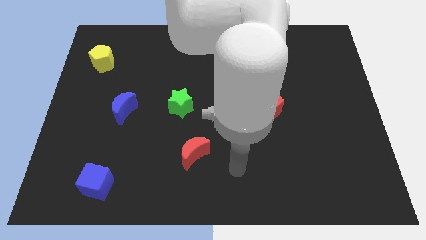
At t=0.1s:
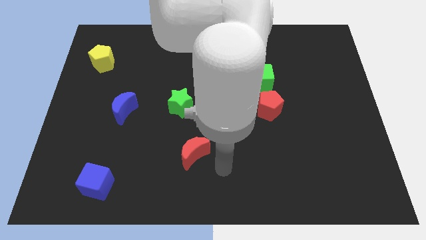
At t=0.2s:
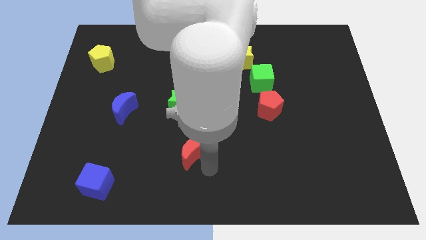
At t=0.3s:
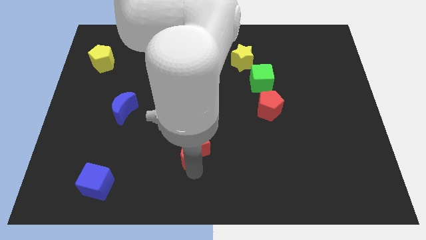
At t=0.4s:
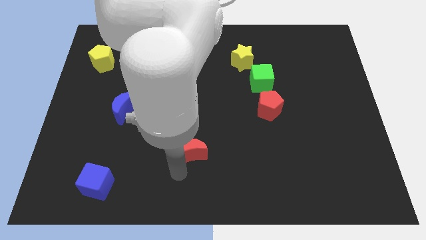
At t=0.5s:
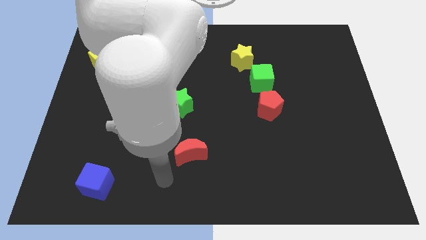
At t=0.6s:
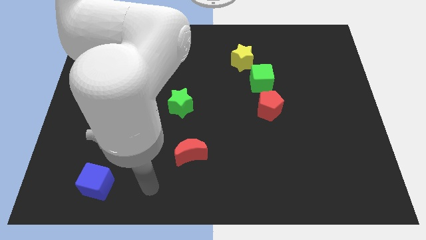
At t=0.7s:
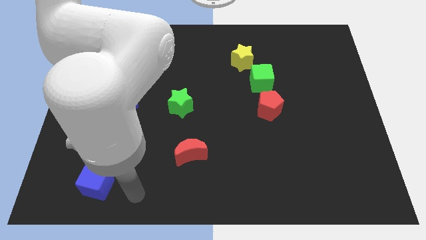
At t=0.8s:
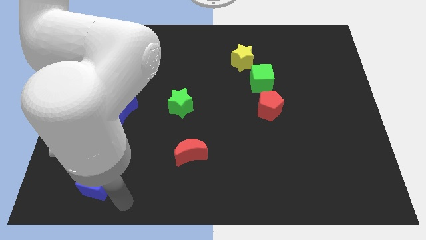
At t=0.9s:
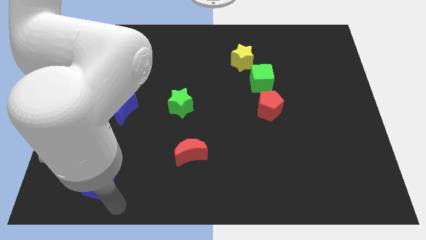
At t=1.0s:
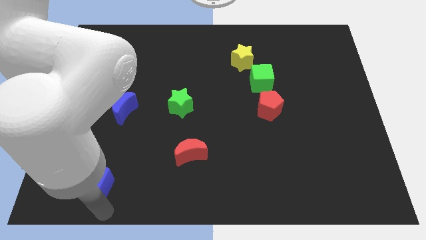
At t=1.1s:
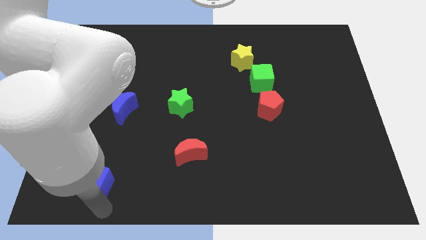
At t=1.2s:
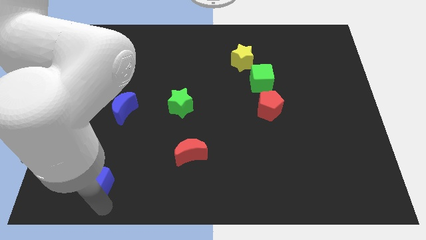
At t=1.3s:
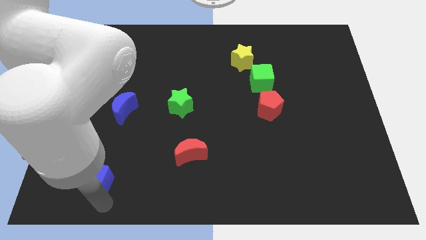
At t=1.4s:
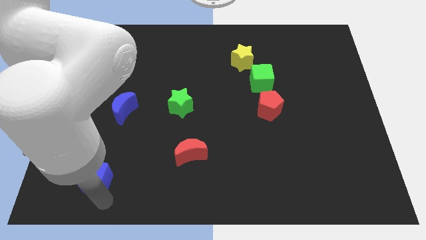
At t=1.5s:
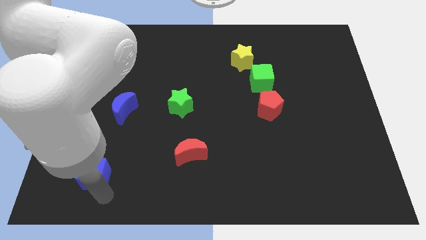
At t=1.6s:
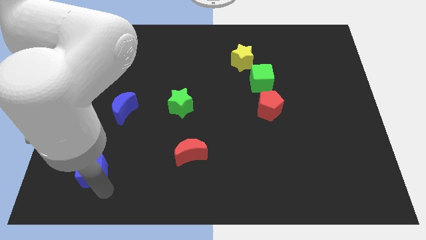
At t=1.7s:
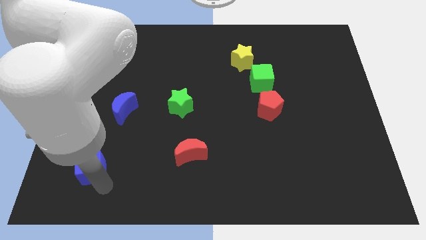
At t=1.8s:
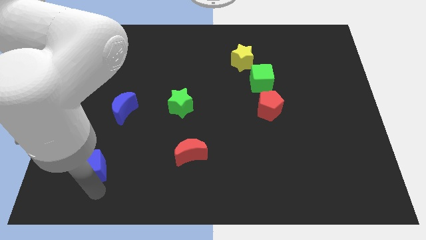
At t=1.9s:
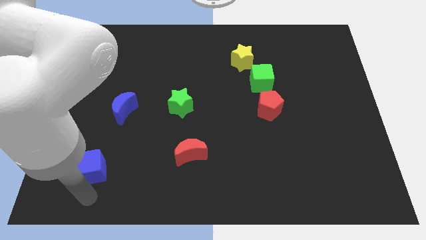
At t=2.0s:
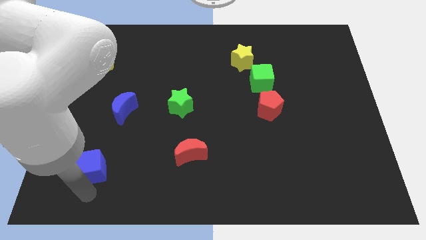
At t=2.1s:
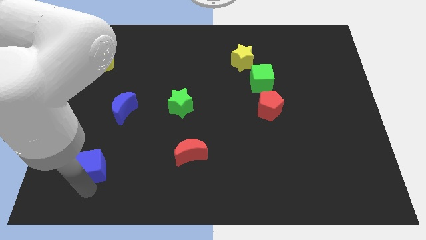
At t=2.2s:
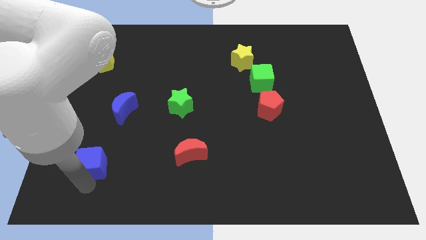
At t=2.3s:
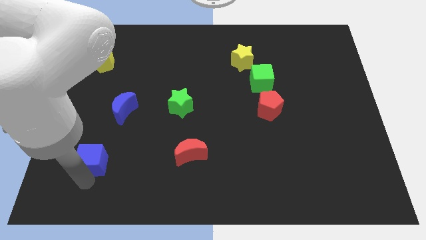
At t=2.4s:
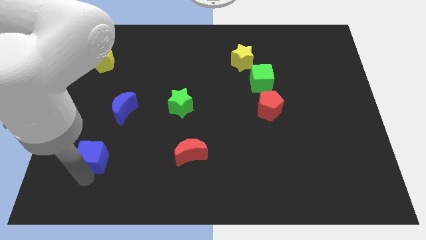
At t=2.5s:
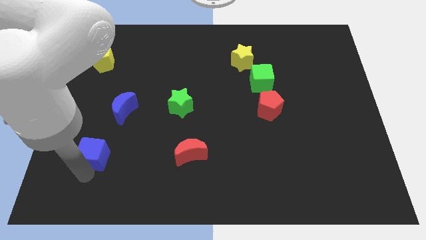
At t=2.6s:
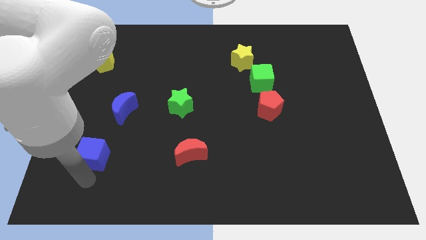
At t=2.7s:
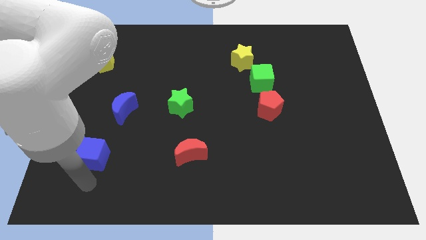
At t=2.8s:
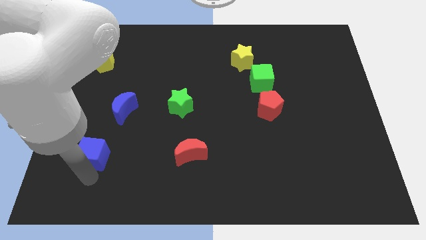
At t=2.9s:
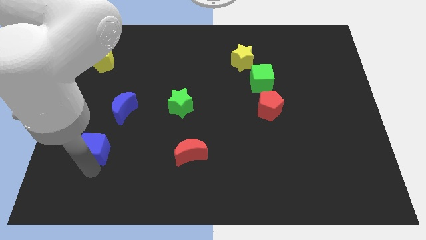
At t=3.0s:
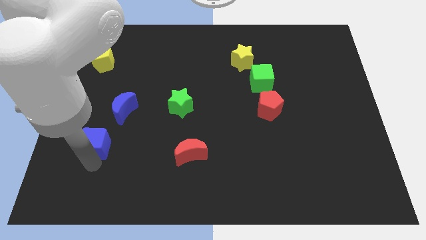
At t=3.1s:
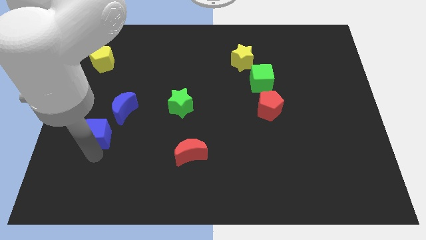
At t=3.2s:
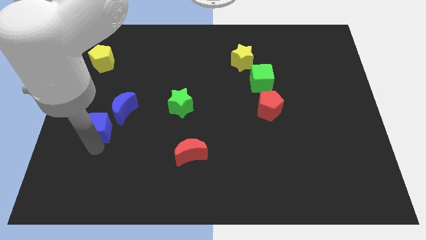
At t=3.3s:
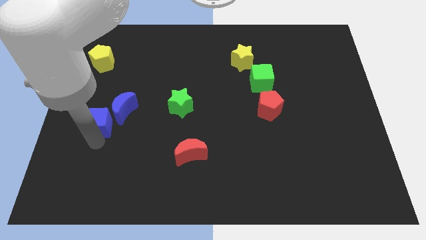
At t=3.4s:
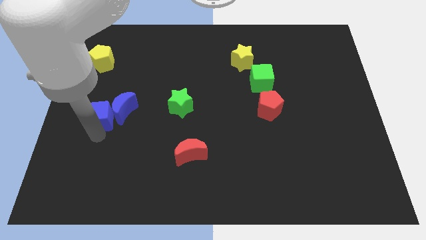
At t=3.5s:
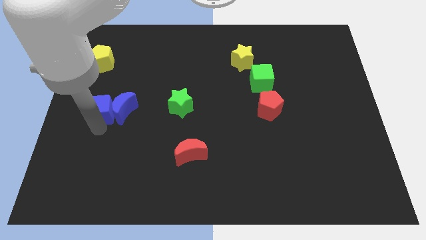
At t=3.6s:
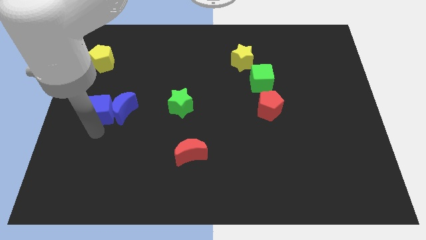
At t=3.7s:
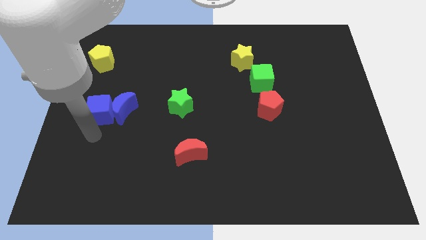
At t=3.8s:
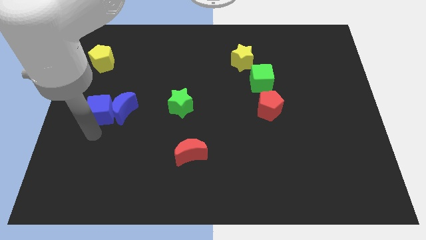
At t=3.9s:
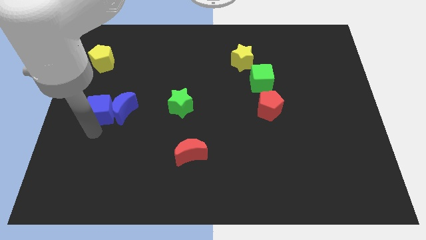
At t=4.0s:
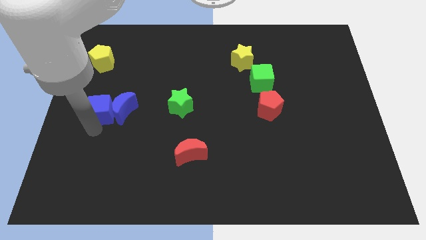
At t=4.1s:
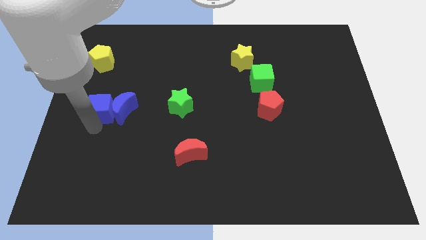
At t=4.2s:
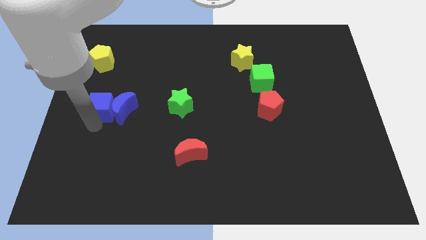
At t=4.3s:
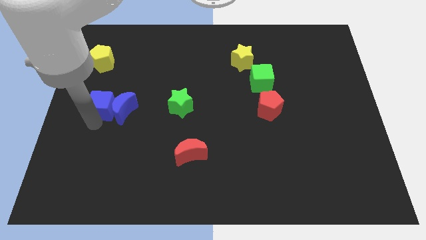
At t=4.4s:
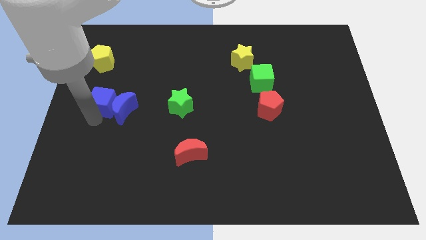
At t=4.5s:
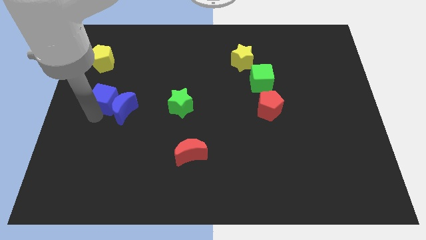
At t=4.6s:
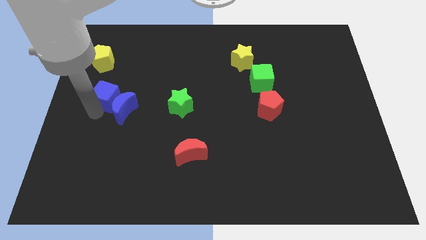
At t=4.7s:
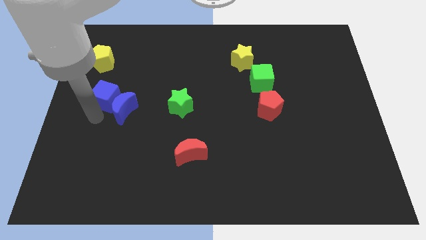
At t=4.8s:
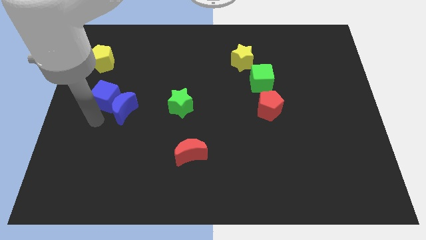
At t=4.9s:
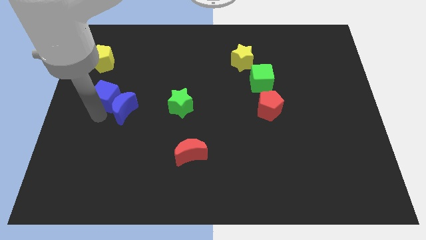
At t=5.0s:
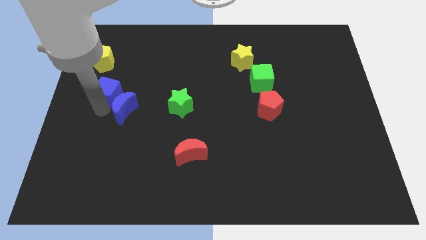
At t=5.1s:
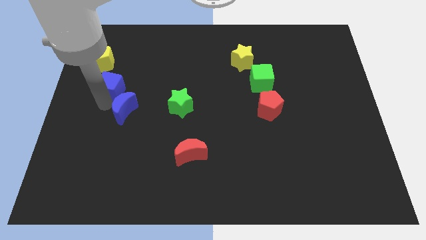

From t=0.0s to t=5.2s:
push the blue cube to the bottom right of the yellow pentagon

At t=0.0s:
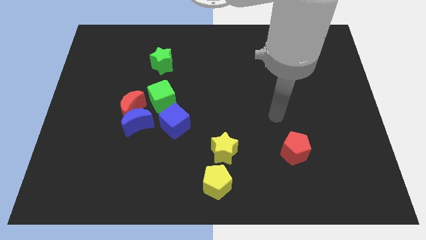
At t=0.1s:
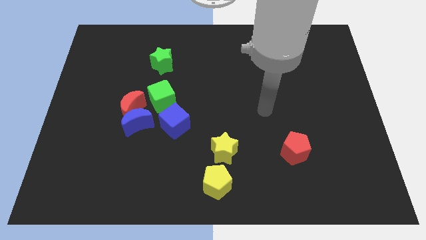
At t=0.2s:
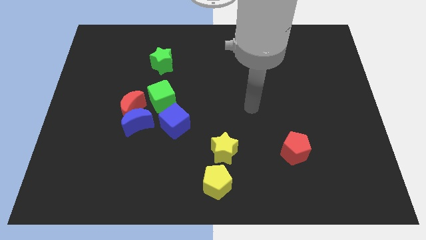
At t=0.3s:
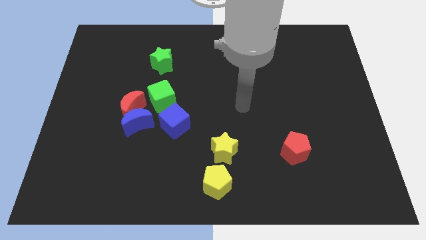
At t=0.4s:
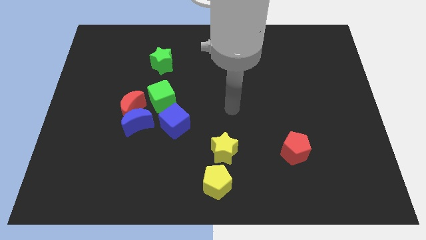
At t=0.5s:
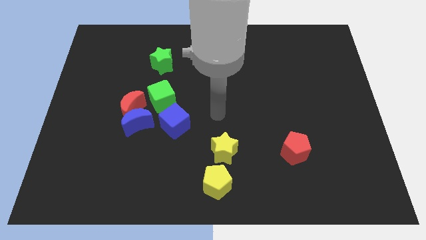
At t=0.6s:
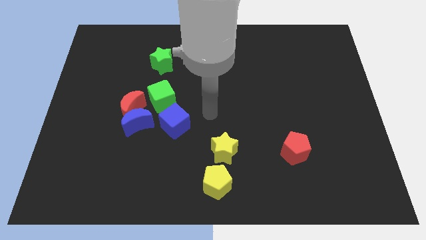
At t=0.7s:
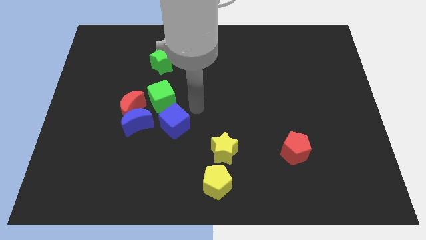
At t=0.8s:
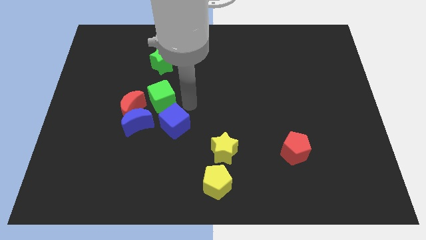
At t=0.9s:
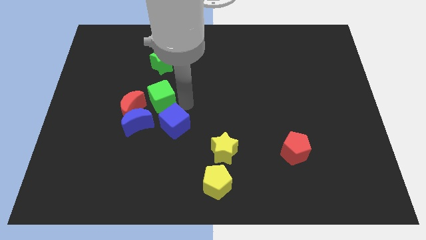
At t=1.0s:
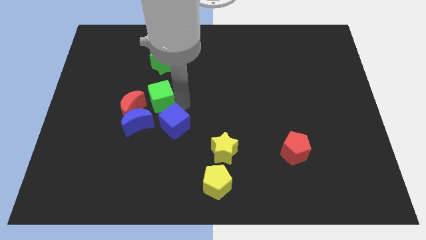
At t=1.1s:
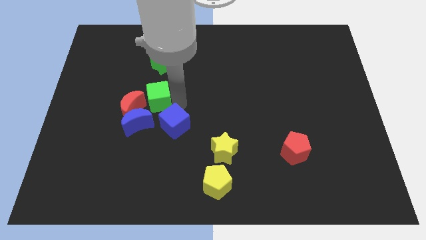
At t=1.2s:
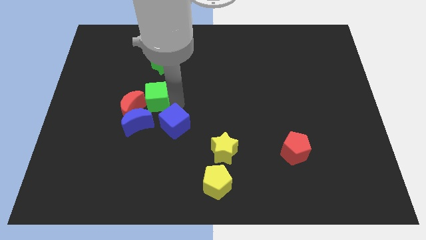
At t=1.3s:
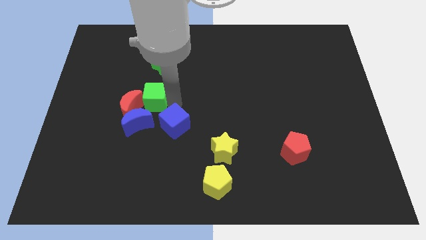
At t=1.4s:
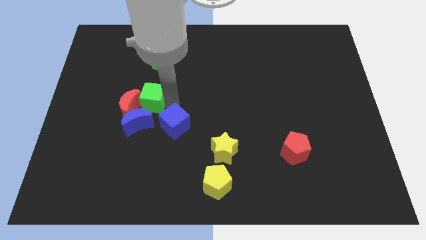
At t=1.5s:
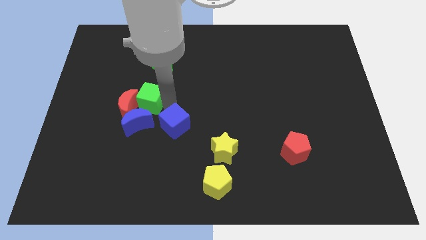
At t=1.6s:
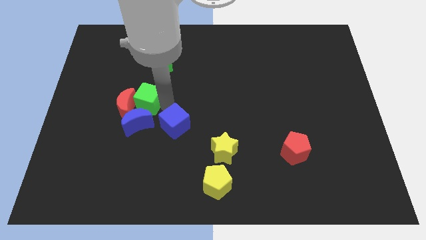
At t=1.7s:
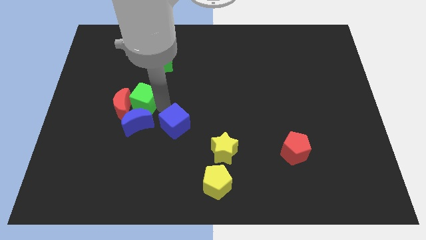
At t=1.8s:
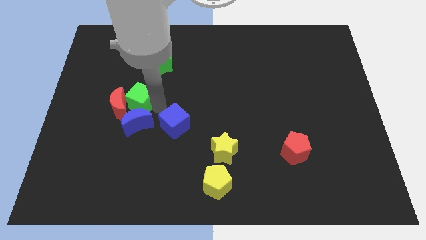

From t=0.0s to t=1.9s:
push the green cube to the top left of the blue moon
